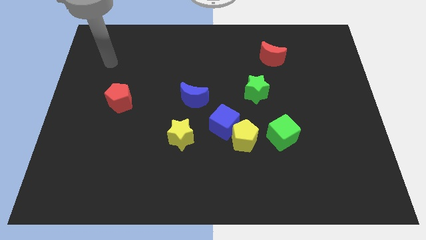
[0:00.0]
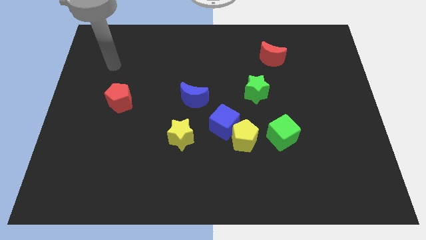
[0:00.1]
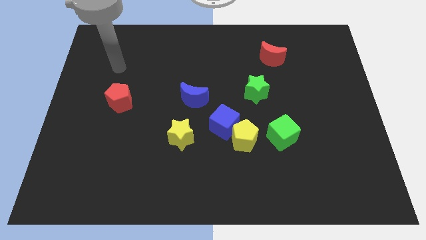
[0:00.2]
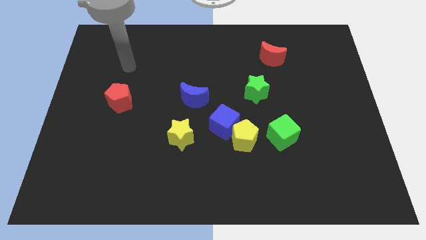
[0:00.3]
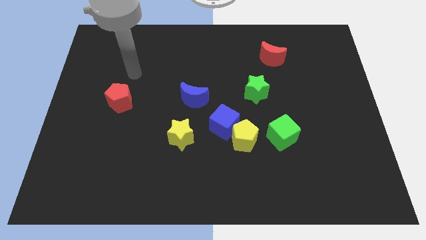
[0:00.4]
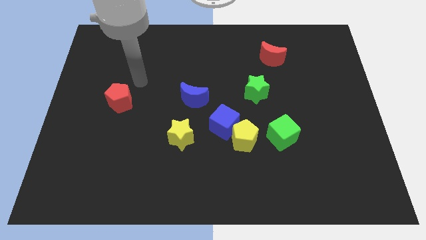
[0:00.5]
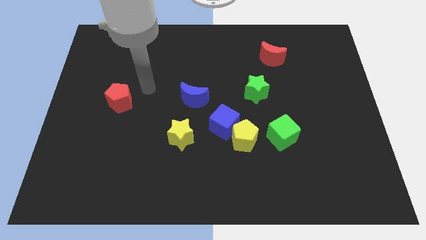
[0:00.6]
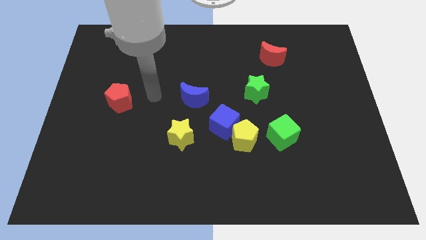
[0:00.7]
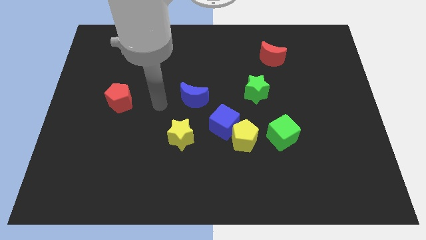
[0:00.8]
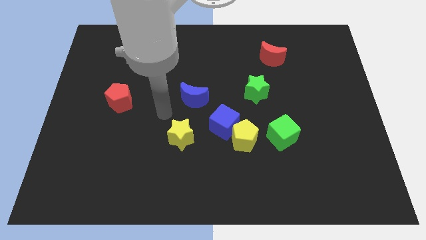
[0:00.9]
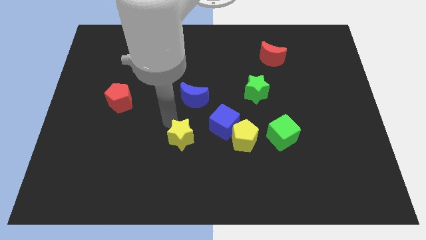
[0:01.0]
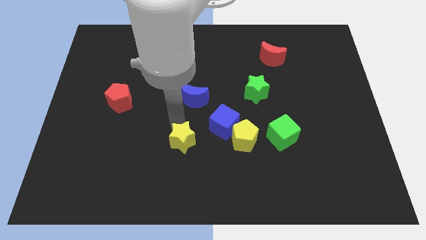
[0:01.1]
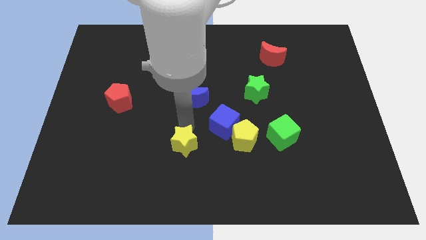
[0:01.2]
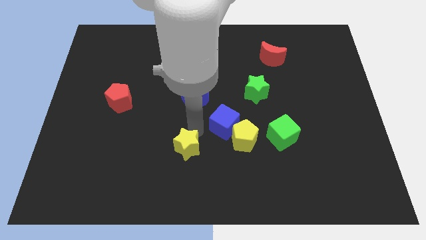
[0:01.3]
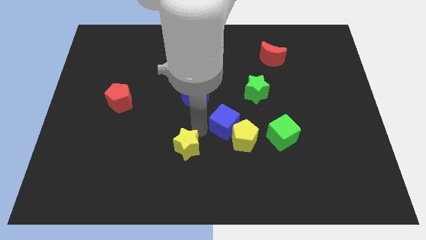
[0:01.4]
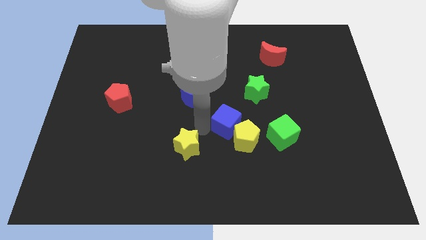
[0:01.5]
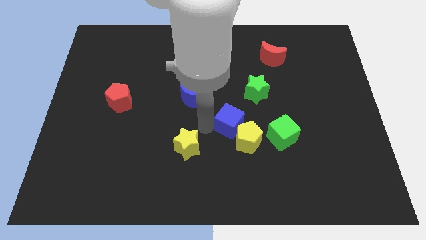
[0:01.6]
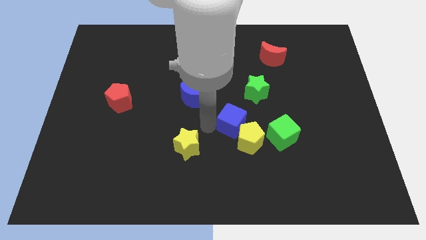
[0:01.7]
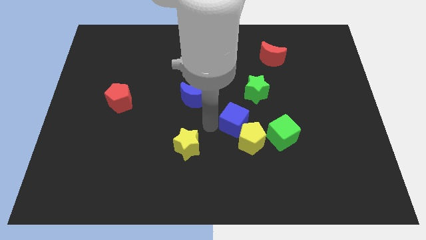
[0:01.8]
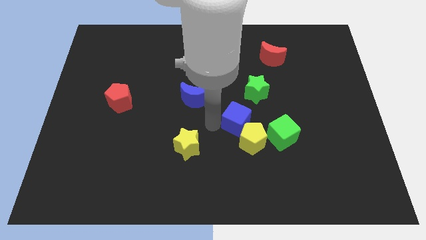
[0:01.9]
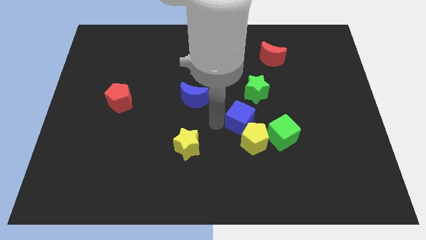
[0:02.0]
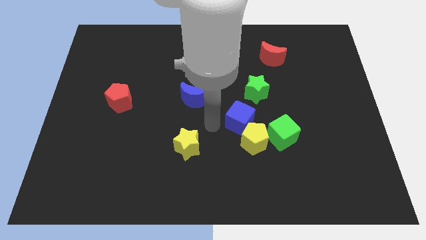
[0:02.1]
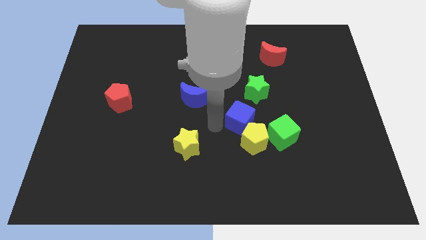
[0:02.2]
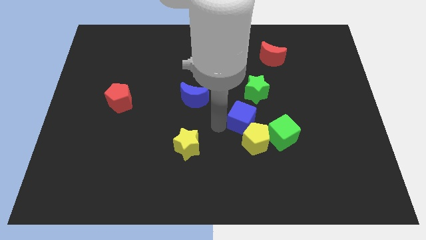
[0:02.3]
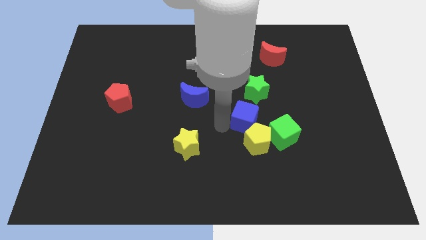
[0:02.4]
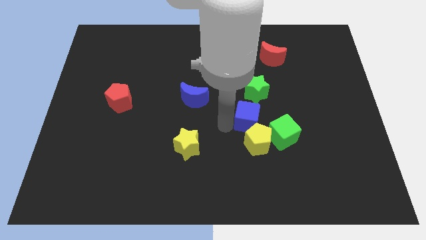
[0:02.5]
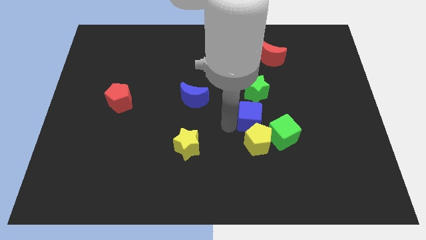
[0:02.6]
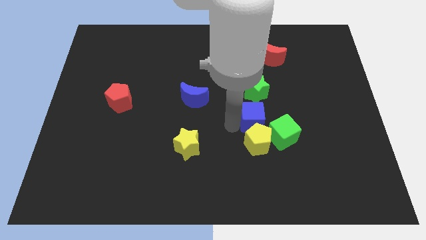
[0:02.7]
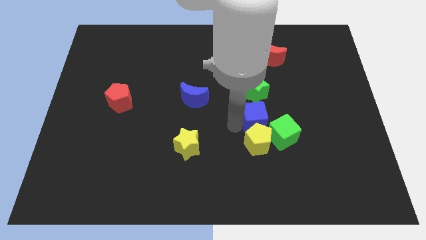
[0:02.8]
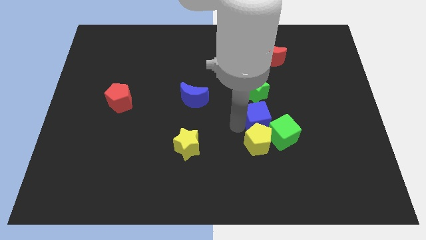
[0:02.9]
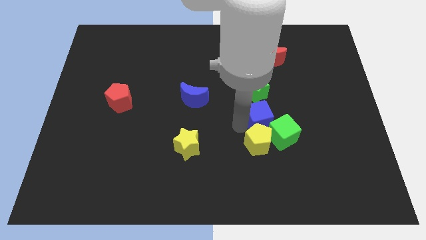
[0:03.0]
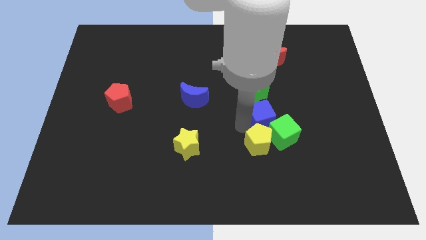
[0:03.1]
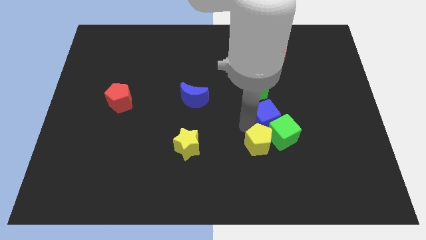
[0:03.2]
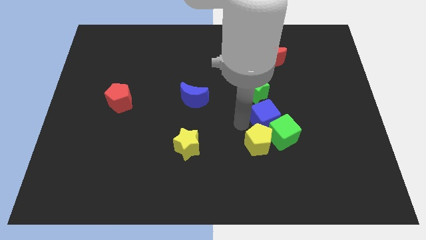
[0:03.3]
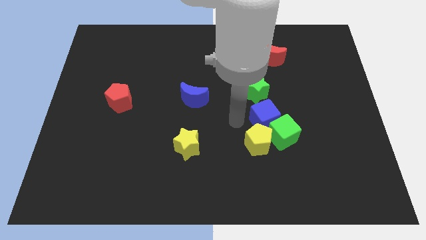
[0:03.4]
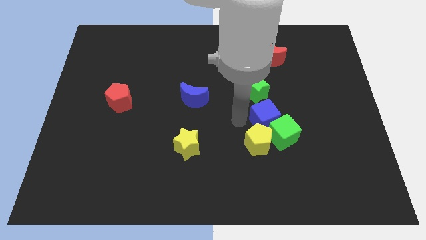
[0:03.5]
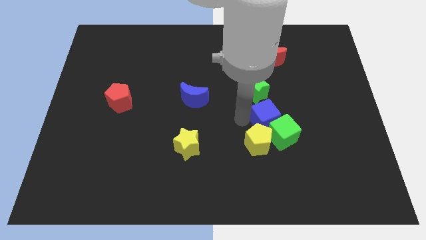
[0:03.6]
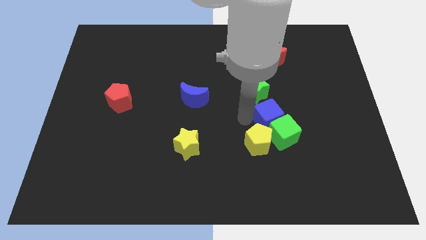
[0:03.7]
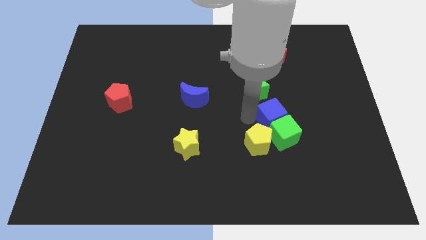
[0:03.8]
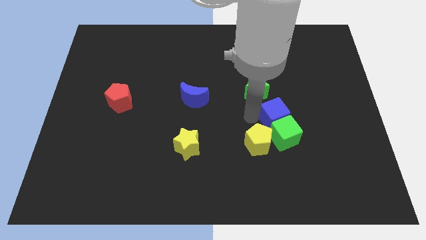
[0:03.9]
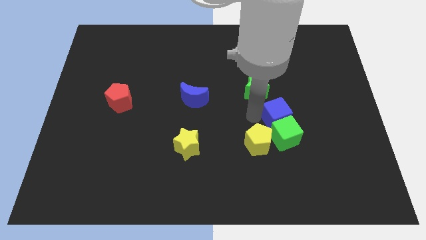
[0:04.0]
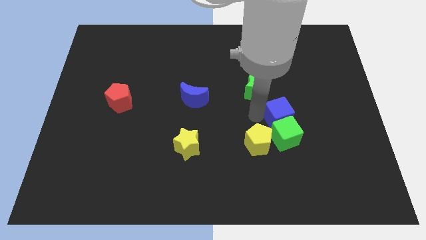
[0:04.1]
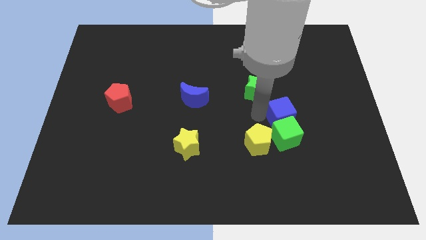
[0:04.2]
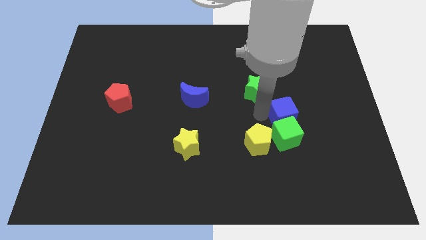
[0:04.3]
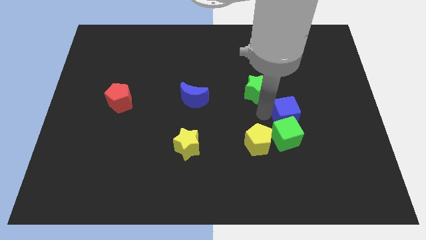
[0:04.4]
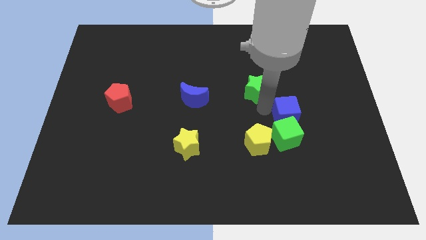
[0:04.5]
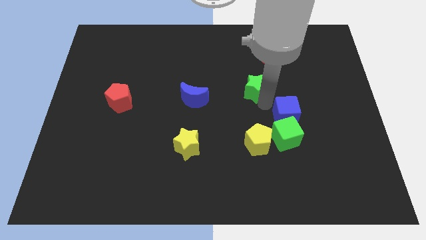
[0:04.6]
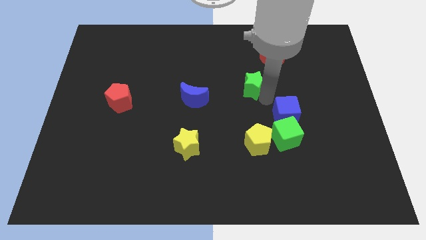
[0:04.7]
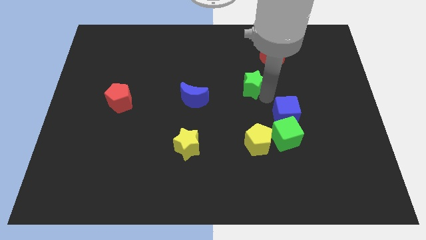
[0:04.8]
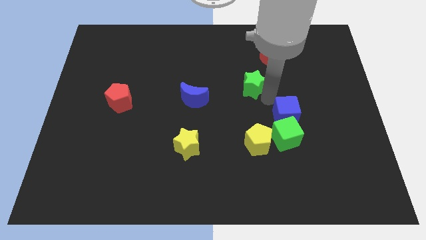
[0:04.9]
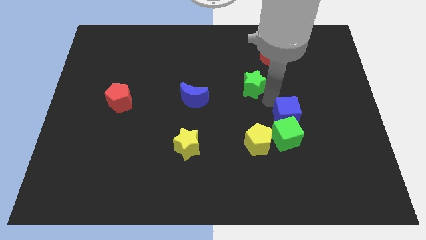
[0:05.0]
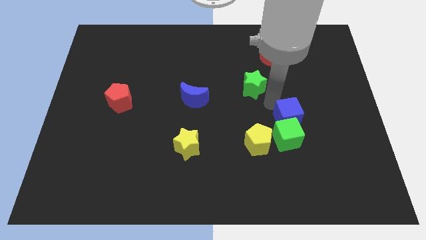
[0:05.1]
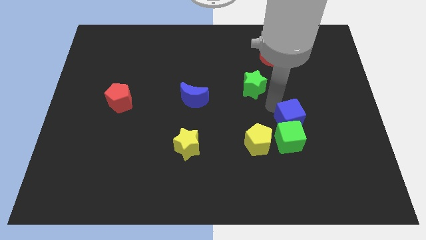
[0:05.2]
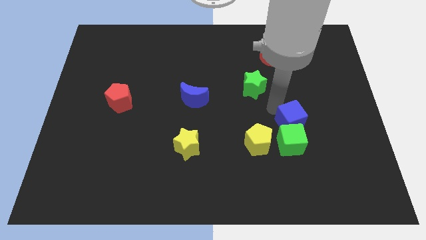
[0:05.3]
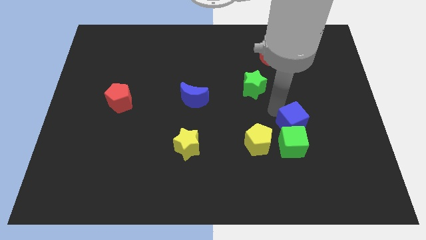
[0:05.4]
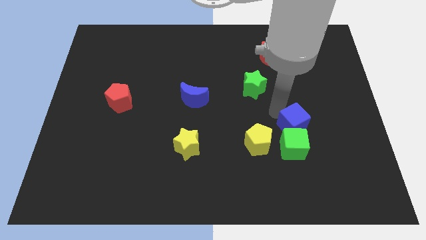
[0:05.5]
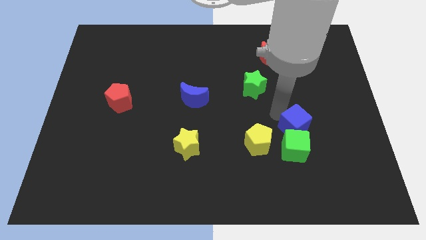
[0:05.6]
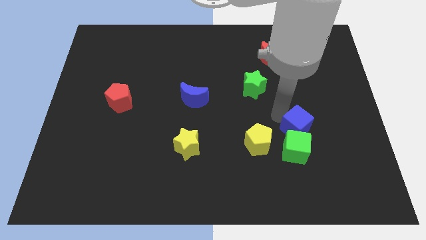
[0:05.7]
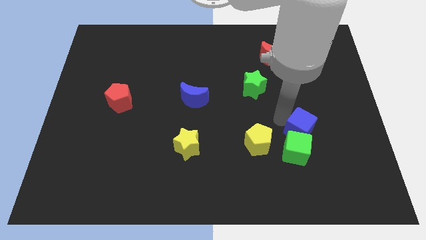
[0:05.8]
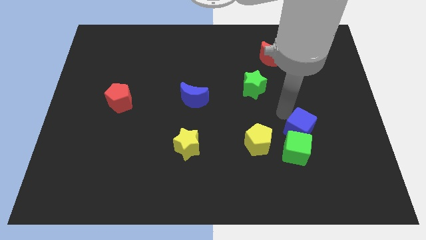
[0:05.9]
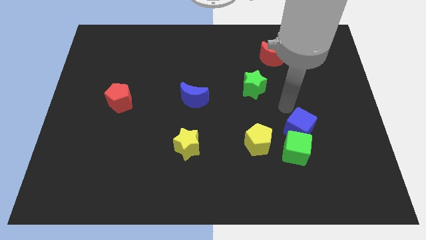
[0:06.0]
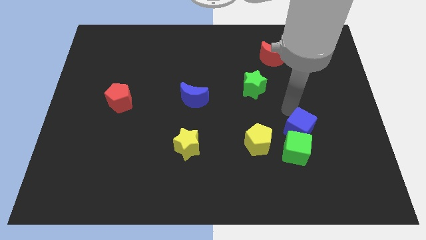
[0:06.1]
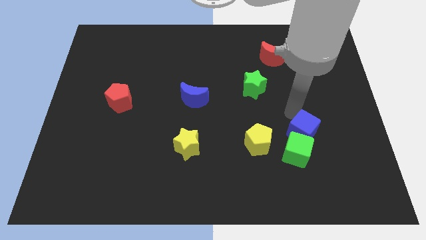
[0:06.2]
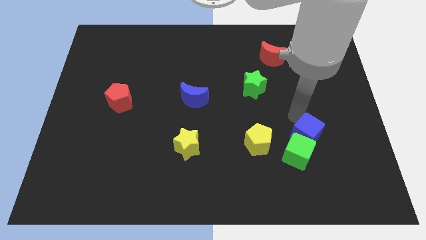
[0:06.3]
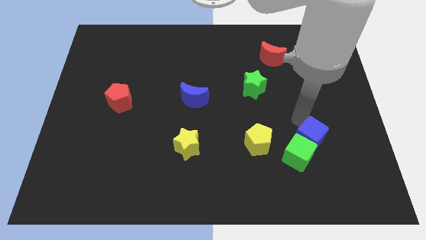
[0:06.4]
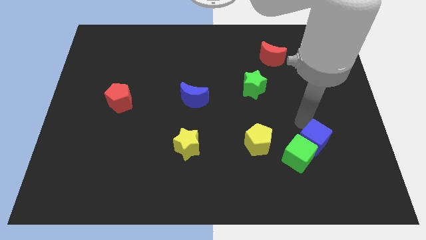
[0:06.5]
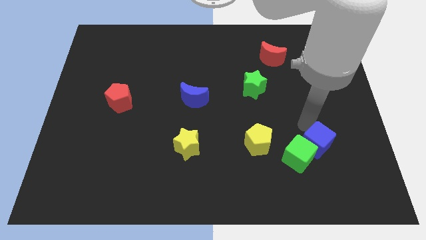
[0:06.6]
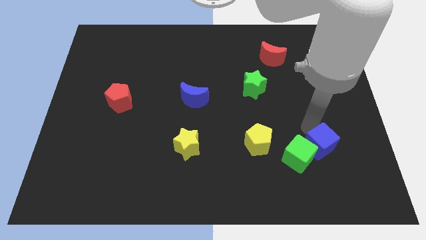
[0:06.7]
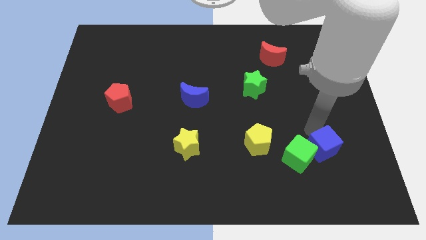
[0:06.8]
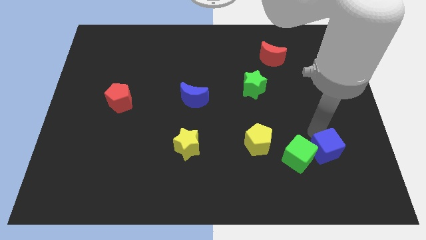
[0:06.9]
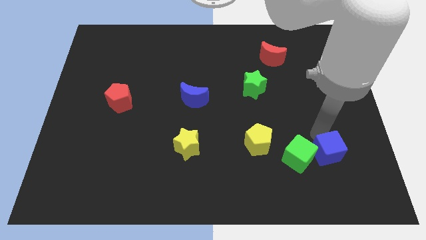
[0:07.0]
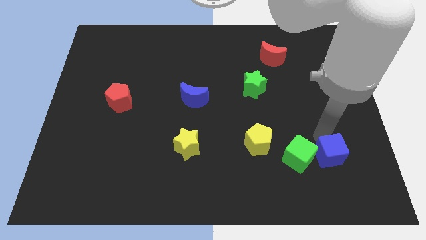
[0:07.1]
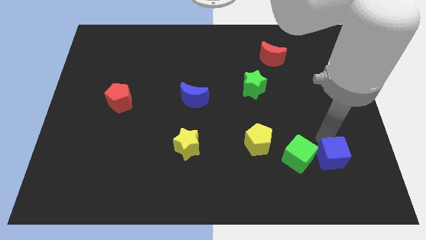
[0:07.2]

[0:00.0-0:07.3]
slide the blue cube to the bottom right of the green cube

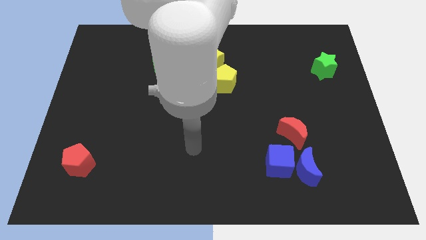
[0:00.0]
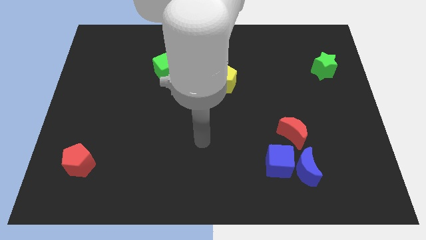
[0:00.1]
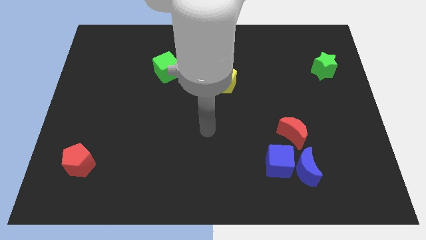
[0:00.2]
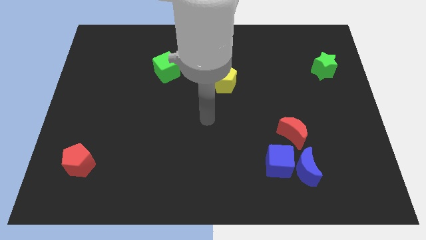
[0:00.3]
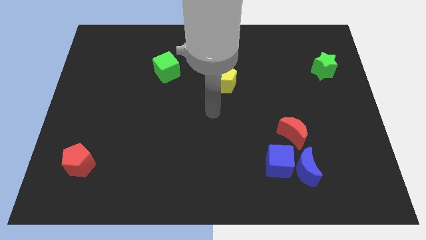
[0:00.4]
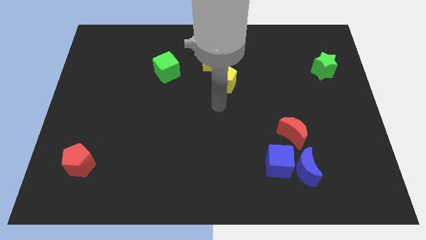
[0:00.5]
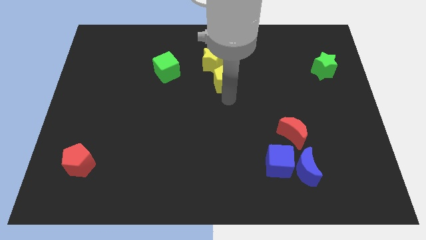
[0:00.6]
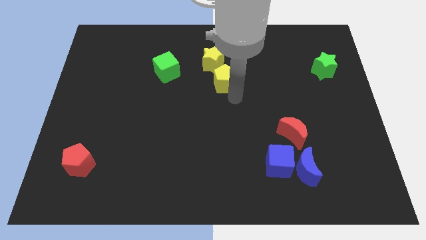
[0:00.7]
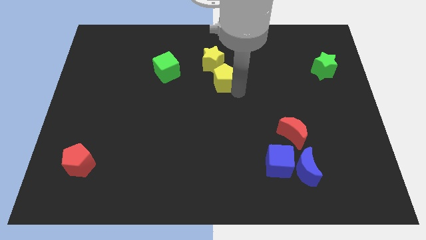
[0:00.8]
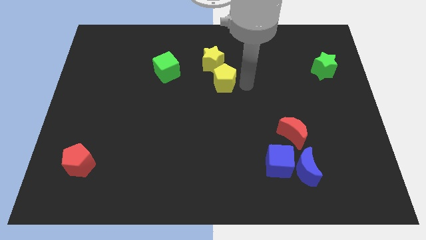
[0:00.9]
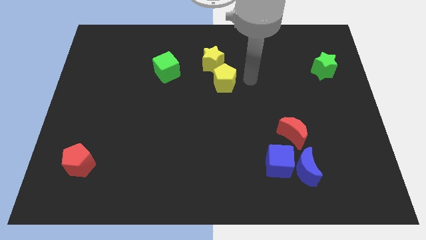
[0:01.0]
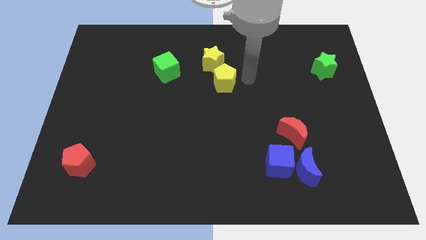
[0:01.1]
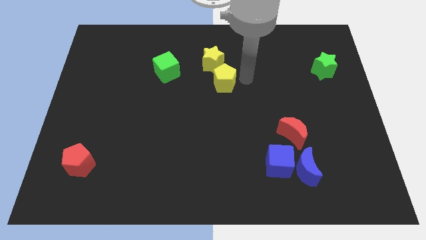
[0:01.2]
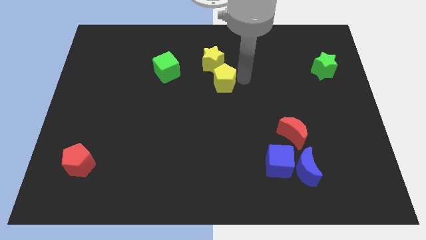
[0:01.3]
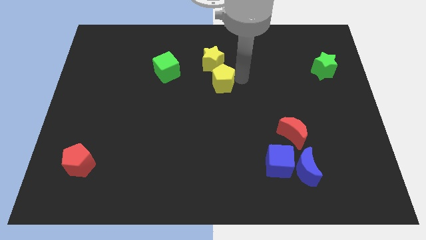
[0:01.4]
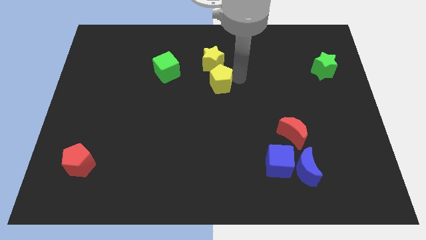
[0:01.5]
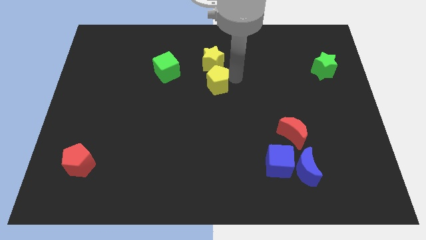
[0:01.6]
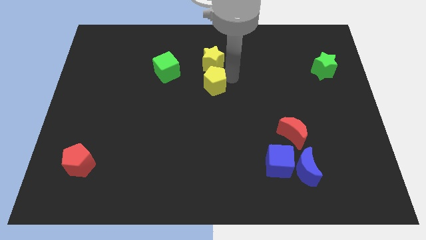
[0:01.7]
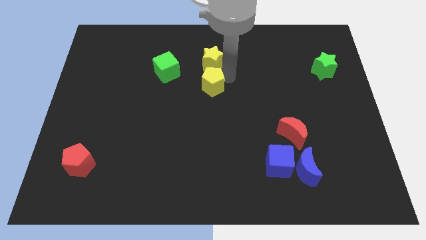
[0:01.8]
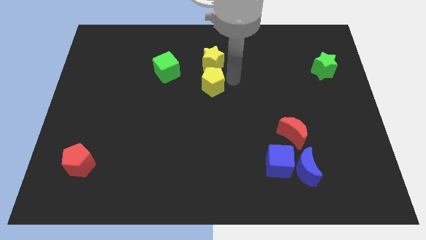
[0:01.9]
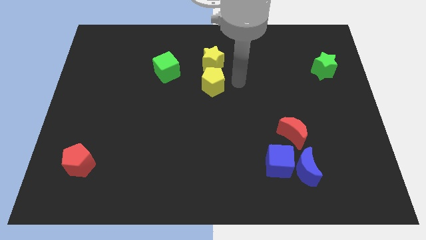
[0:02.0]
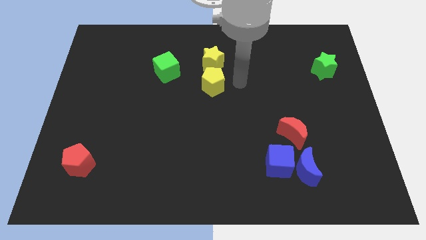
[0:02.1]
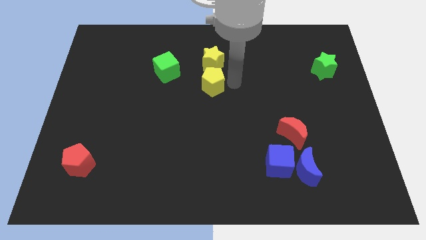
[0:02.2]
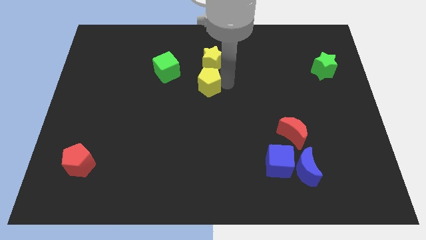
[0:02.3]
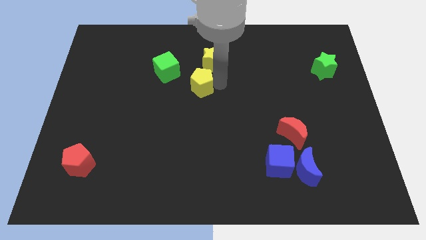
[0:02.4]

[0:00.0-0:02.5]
put the yellow pentagon to the bottom right of the green cube
